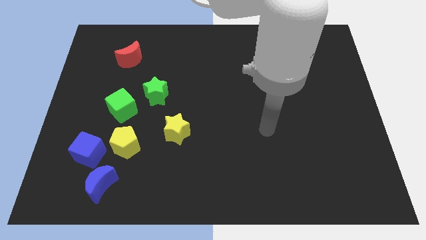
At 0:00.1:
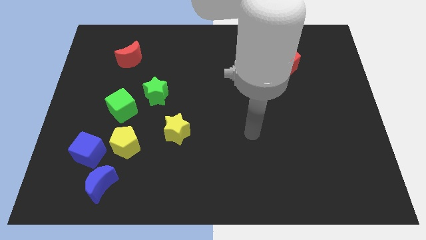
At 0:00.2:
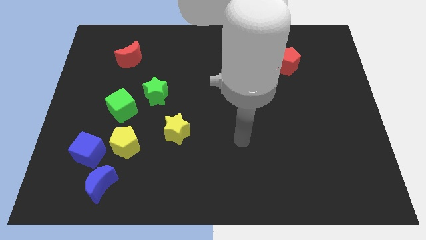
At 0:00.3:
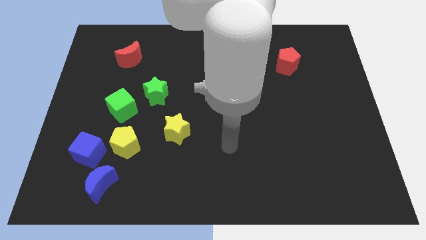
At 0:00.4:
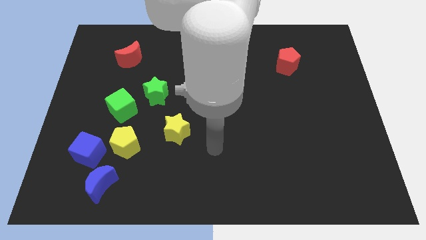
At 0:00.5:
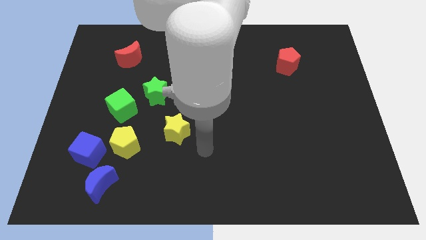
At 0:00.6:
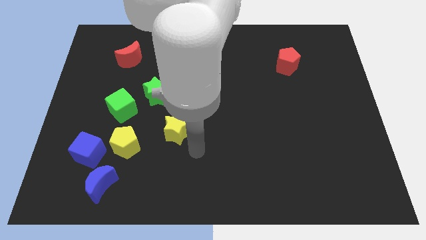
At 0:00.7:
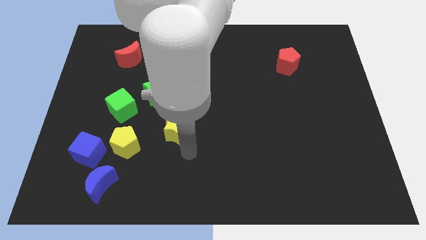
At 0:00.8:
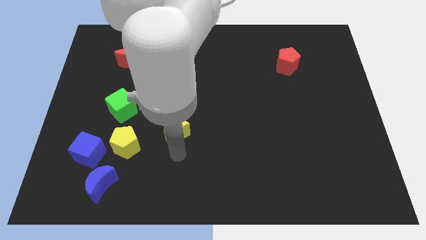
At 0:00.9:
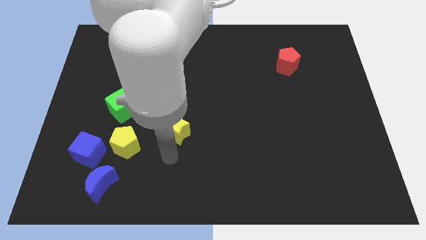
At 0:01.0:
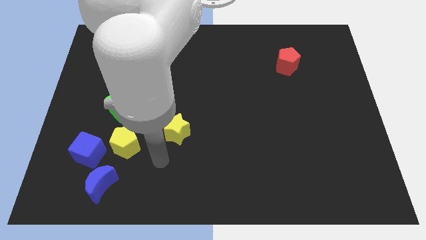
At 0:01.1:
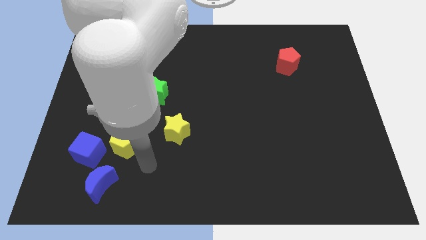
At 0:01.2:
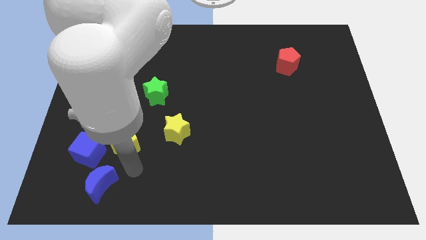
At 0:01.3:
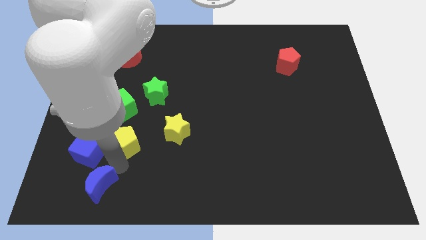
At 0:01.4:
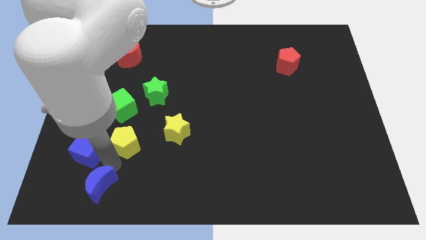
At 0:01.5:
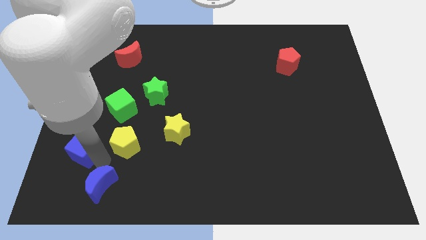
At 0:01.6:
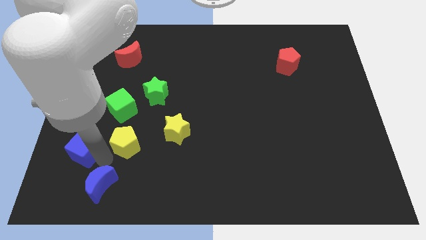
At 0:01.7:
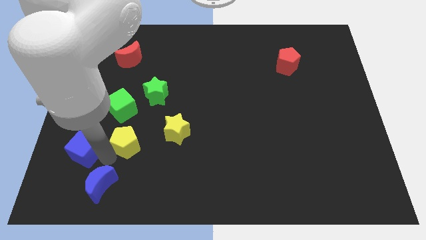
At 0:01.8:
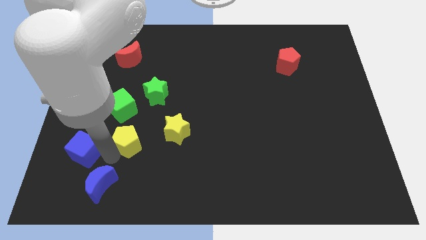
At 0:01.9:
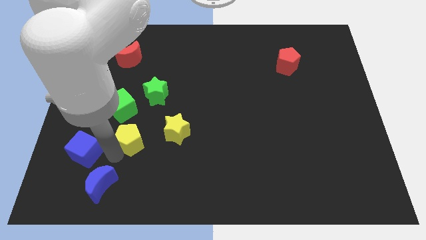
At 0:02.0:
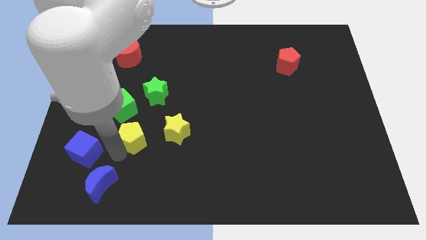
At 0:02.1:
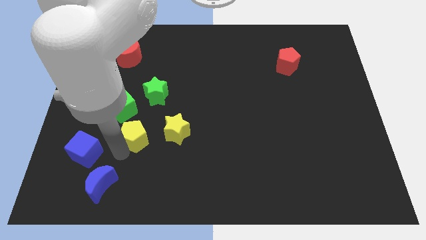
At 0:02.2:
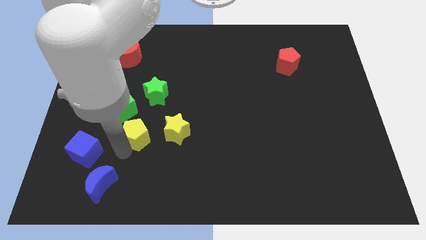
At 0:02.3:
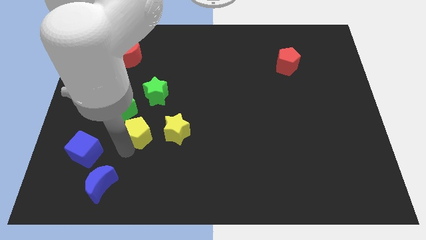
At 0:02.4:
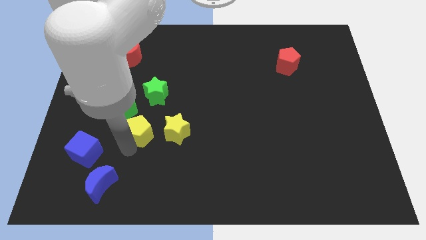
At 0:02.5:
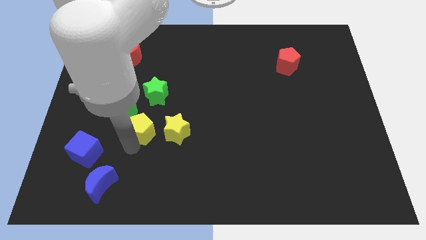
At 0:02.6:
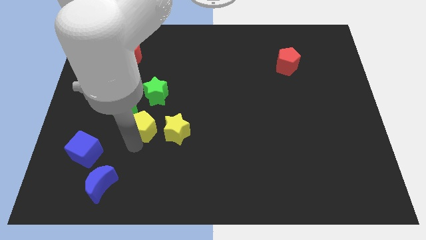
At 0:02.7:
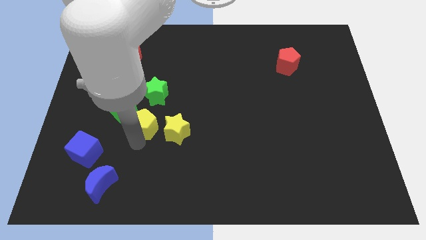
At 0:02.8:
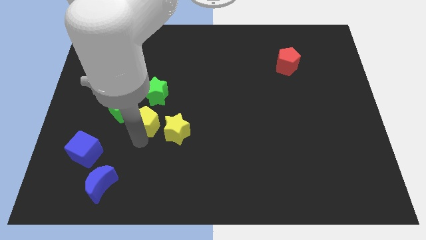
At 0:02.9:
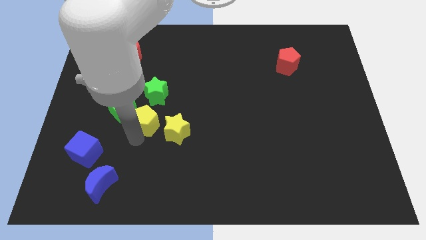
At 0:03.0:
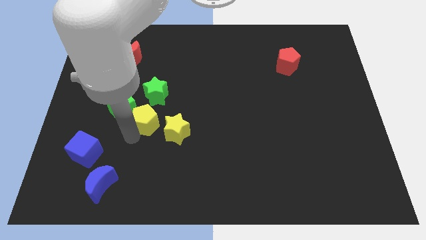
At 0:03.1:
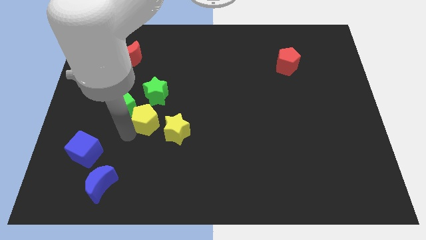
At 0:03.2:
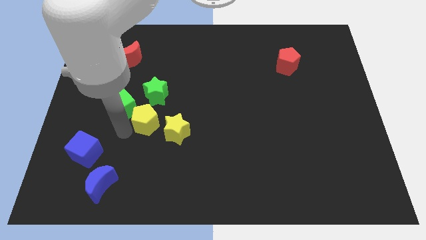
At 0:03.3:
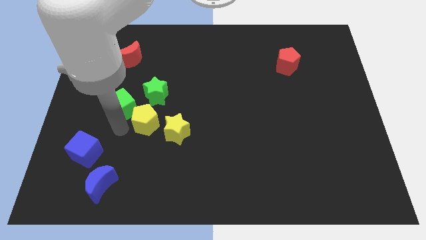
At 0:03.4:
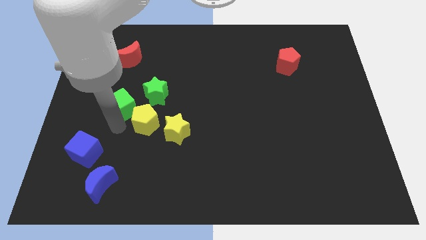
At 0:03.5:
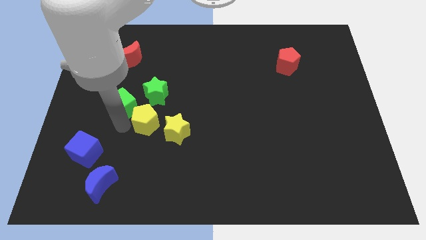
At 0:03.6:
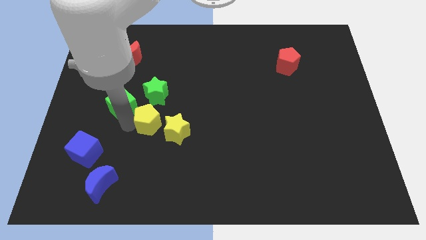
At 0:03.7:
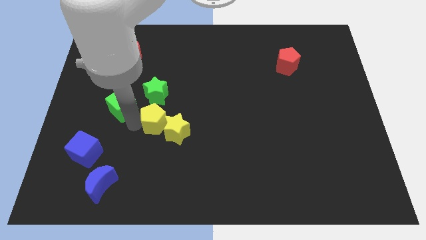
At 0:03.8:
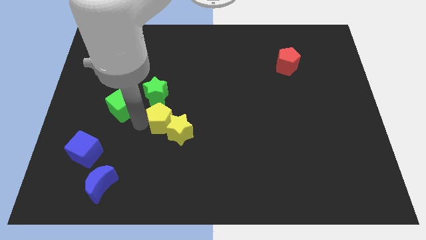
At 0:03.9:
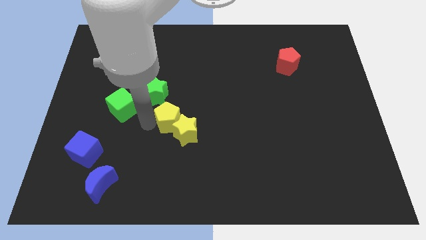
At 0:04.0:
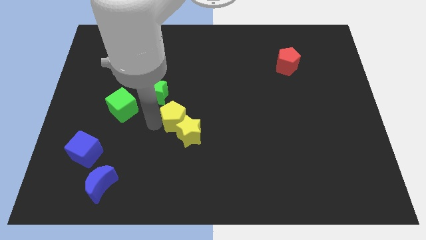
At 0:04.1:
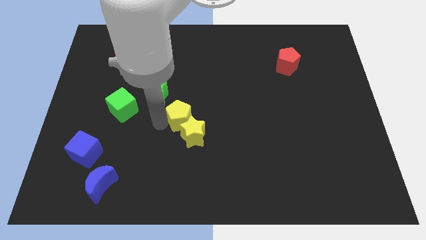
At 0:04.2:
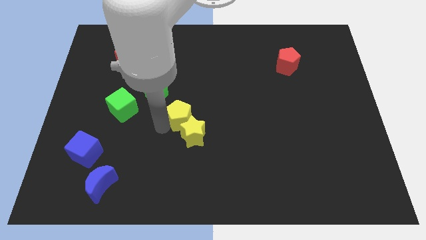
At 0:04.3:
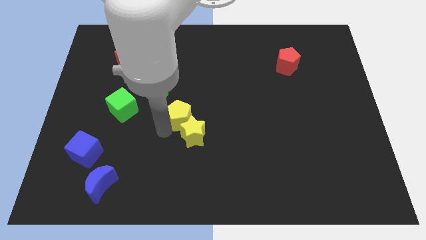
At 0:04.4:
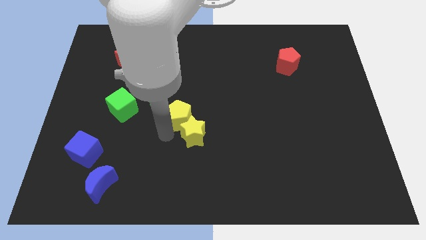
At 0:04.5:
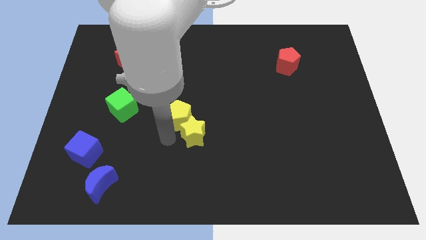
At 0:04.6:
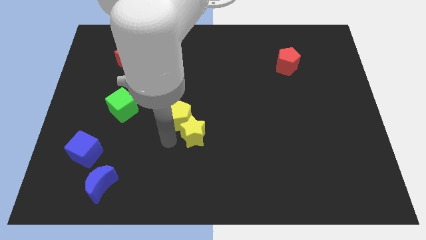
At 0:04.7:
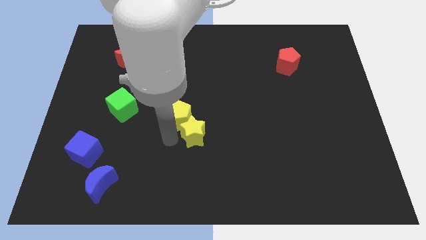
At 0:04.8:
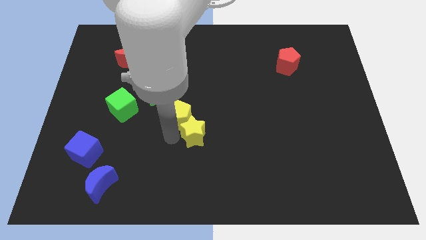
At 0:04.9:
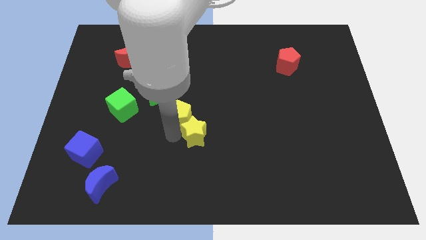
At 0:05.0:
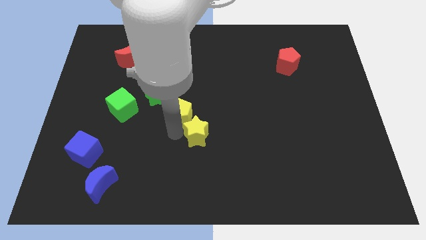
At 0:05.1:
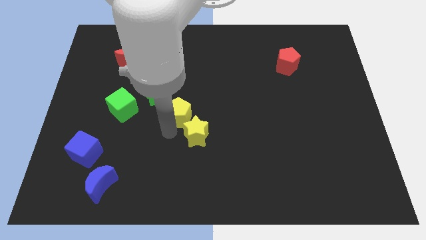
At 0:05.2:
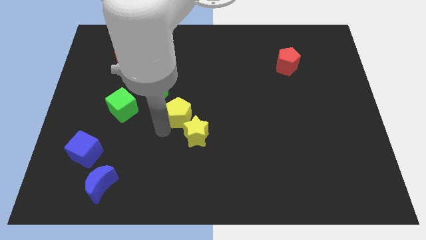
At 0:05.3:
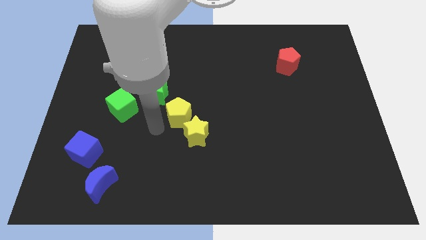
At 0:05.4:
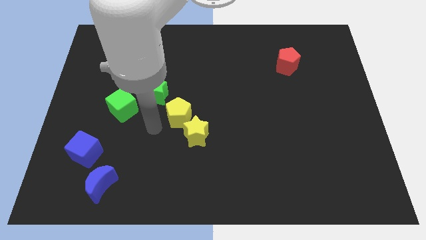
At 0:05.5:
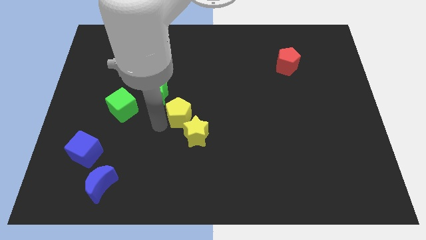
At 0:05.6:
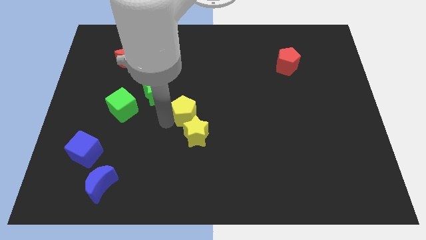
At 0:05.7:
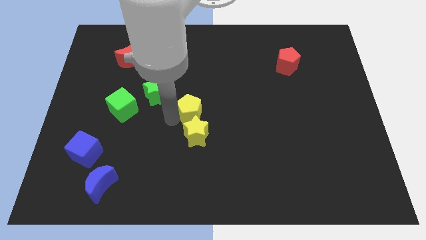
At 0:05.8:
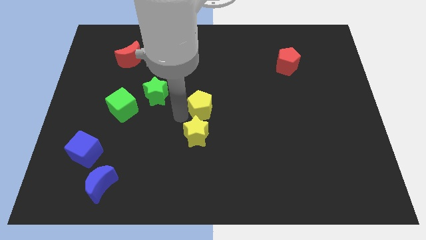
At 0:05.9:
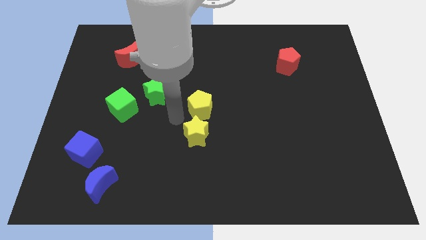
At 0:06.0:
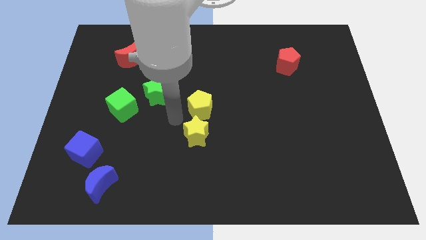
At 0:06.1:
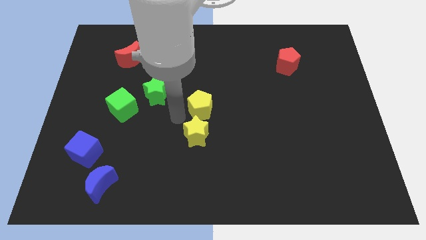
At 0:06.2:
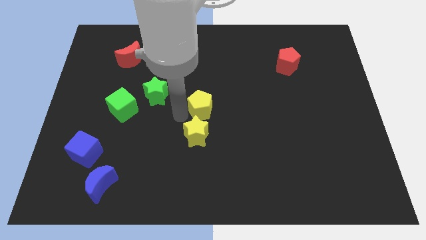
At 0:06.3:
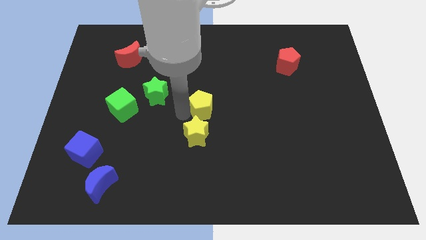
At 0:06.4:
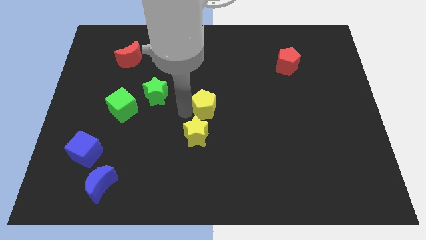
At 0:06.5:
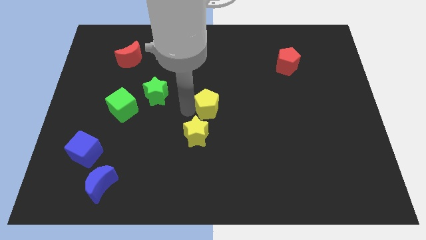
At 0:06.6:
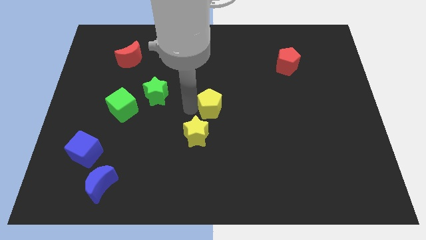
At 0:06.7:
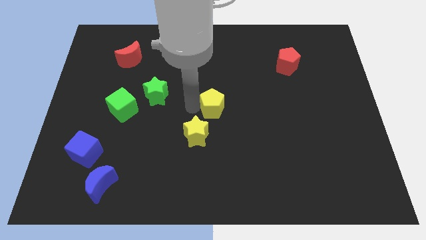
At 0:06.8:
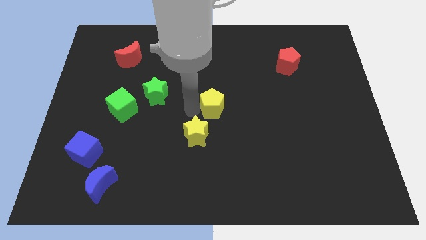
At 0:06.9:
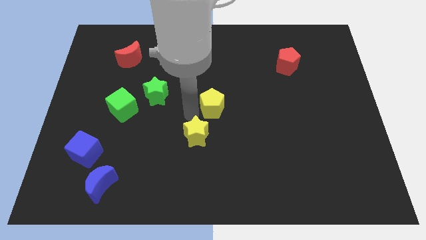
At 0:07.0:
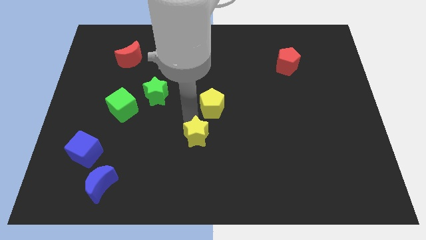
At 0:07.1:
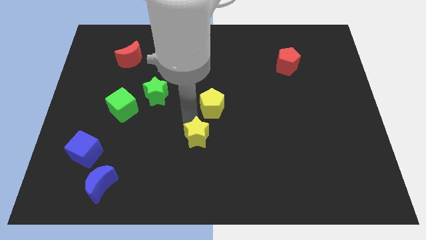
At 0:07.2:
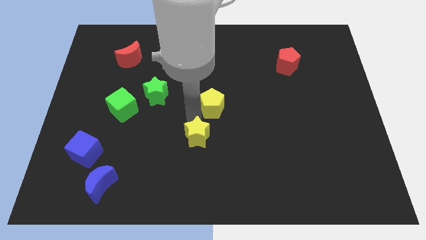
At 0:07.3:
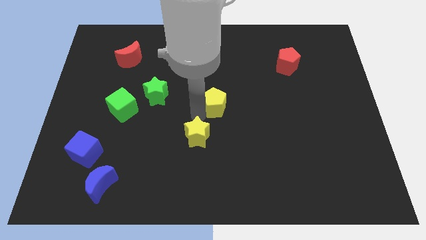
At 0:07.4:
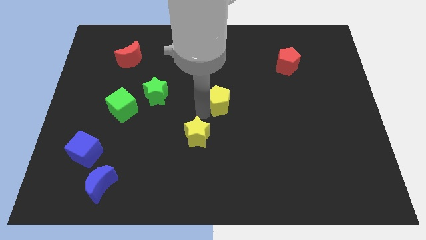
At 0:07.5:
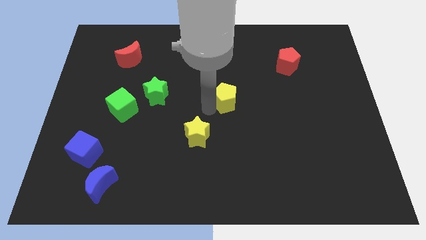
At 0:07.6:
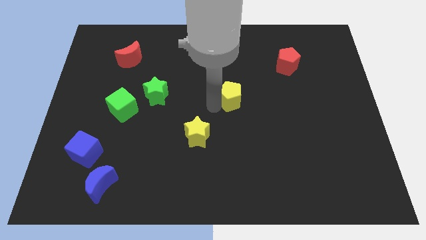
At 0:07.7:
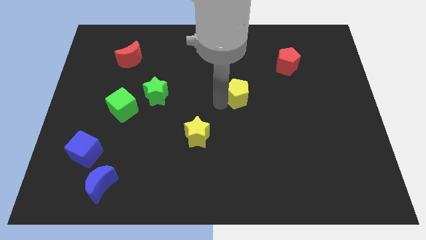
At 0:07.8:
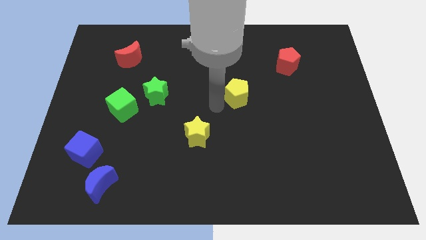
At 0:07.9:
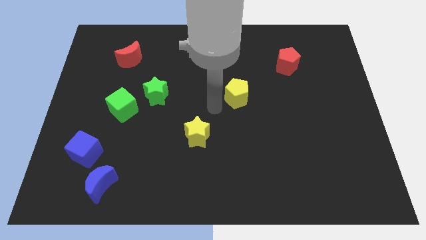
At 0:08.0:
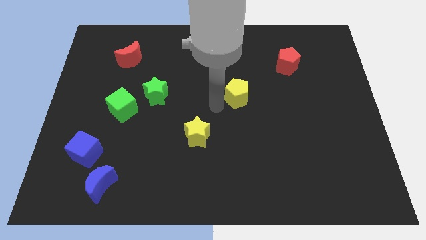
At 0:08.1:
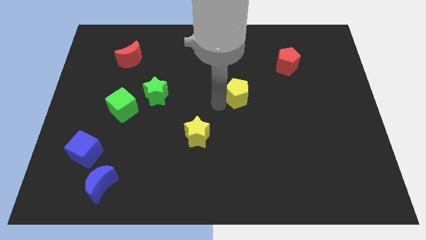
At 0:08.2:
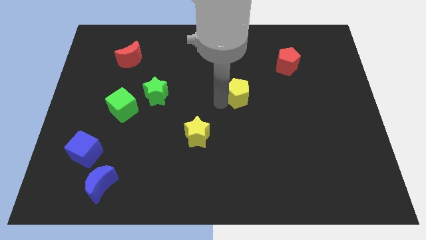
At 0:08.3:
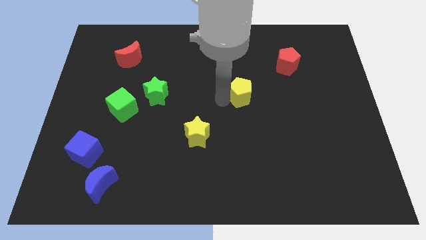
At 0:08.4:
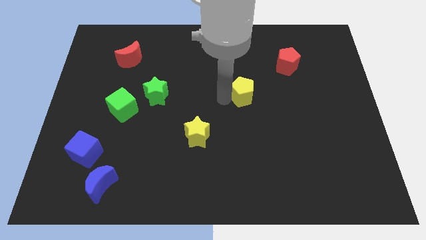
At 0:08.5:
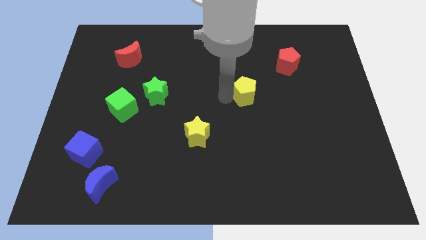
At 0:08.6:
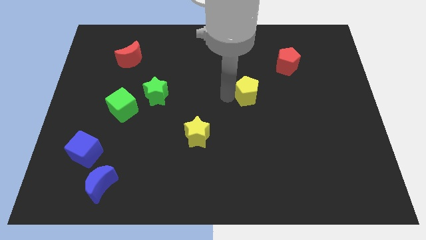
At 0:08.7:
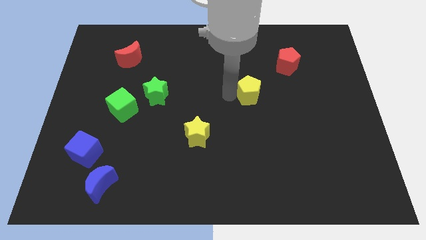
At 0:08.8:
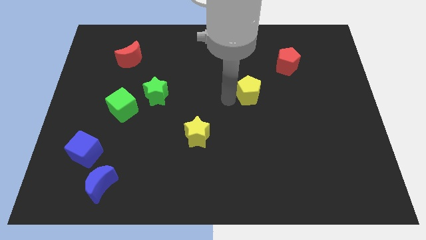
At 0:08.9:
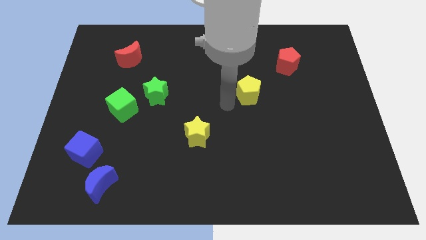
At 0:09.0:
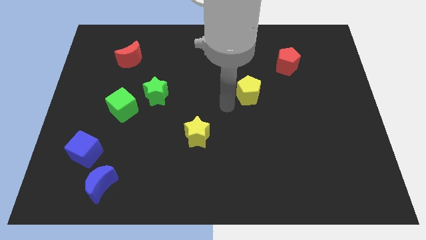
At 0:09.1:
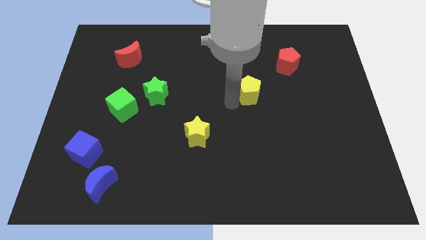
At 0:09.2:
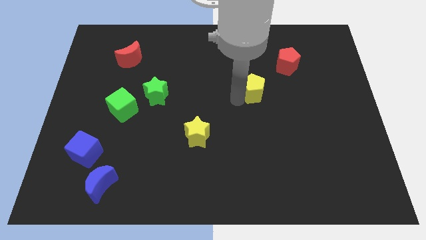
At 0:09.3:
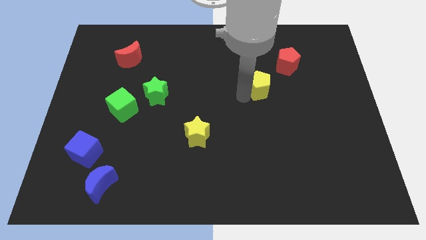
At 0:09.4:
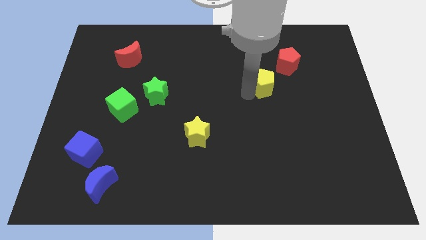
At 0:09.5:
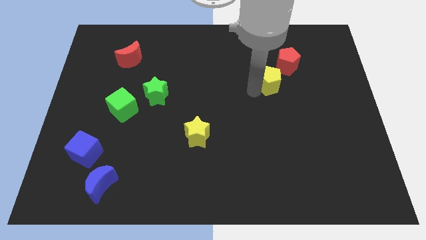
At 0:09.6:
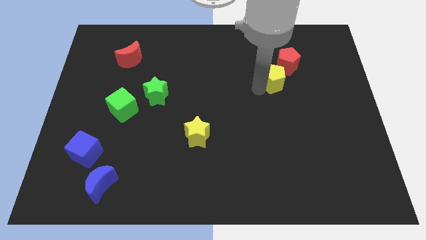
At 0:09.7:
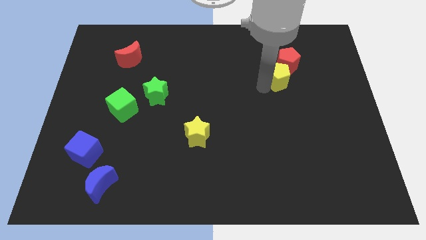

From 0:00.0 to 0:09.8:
slide the yellow pentagon towards the red pentagon
